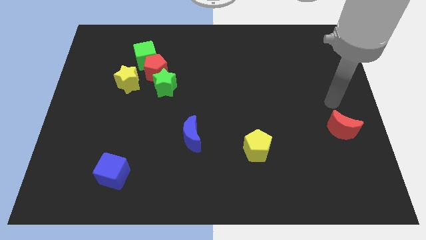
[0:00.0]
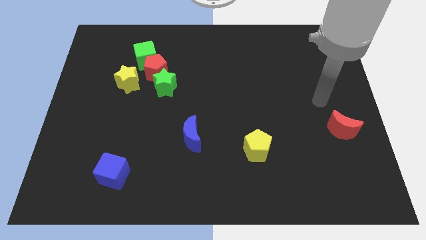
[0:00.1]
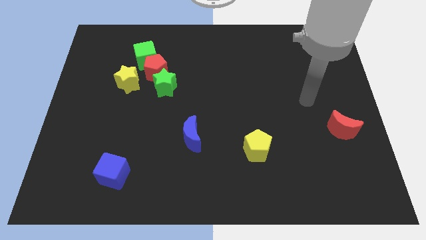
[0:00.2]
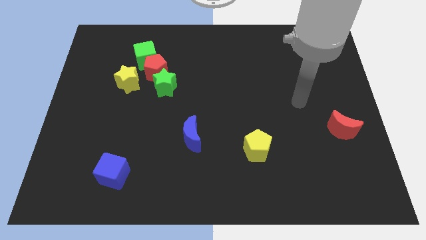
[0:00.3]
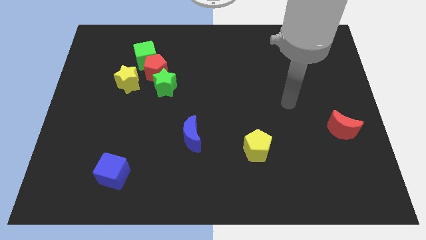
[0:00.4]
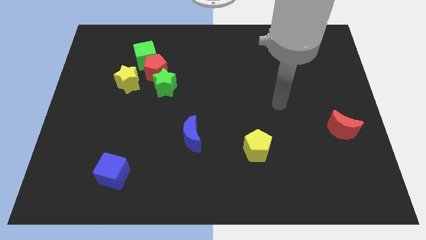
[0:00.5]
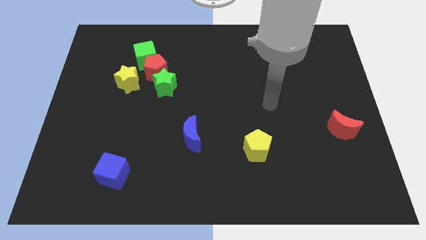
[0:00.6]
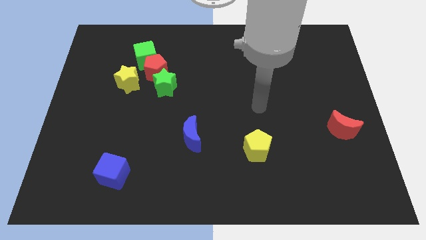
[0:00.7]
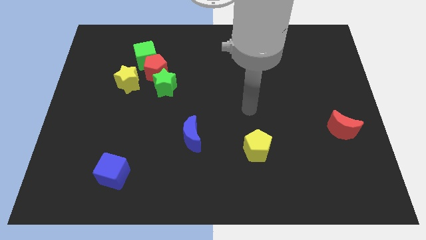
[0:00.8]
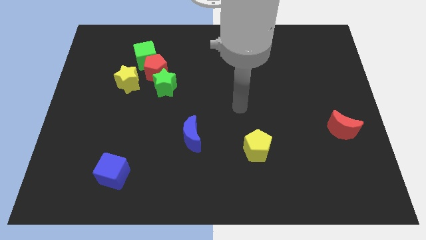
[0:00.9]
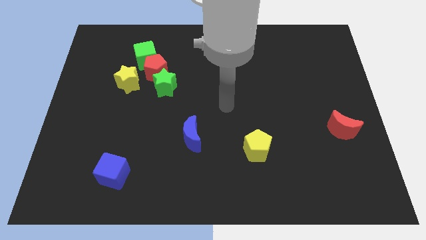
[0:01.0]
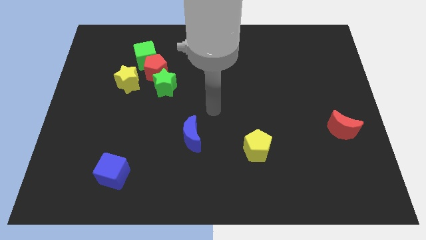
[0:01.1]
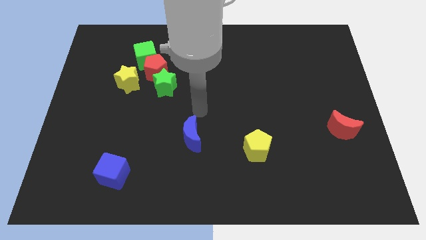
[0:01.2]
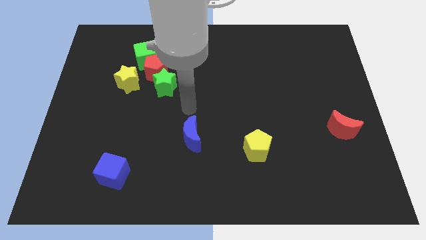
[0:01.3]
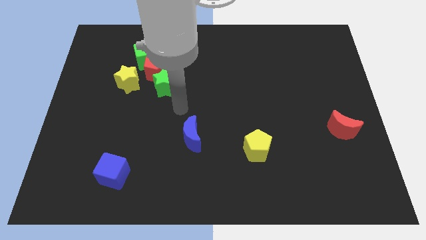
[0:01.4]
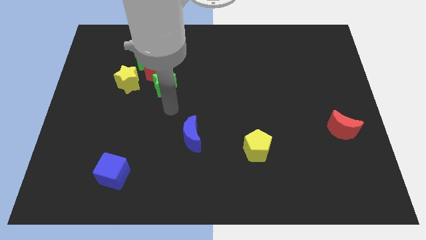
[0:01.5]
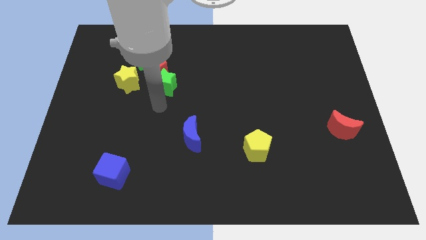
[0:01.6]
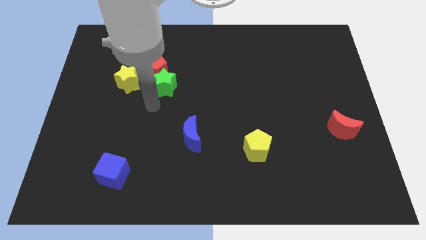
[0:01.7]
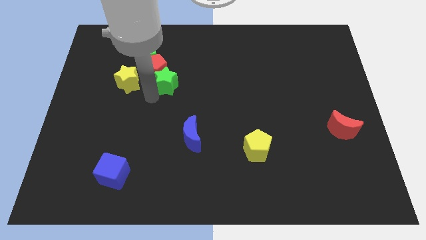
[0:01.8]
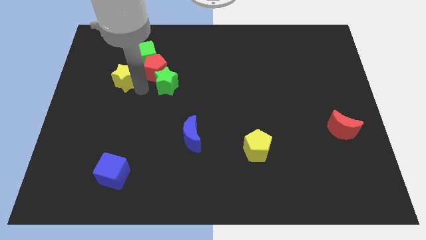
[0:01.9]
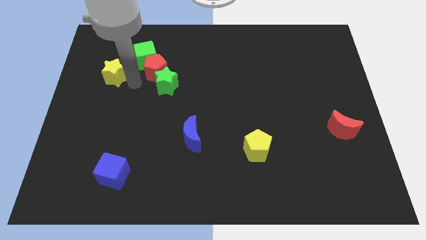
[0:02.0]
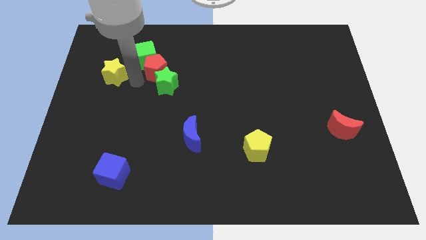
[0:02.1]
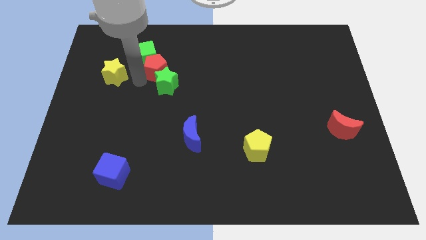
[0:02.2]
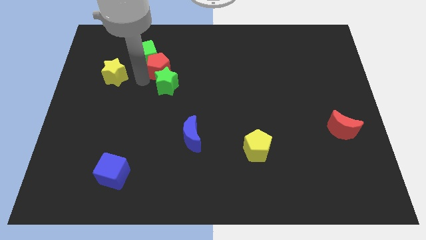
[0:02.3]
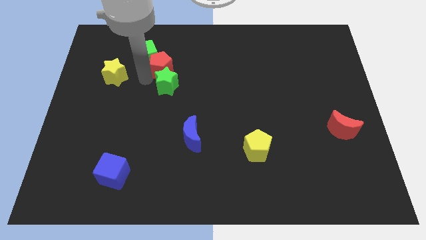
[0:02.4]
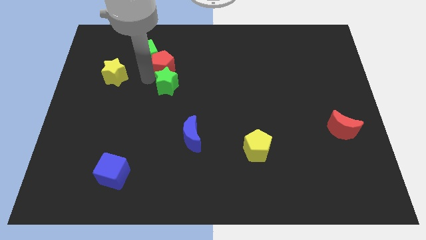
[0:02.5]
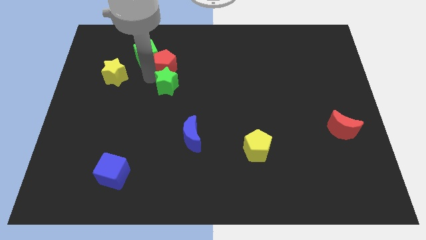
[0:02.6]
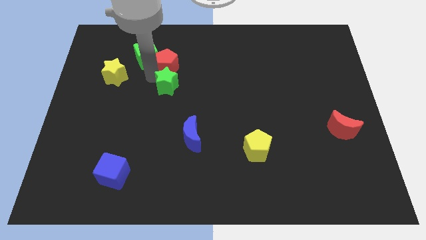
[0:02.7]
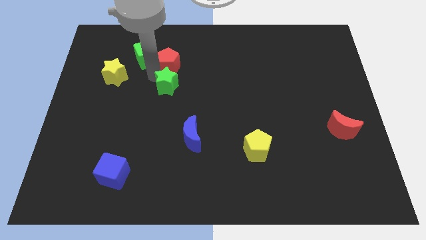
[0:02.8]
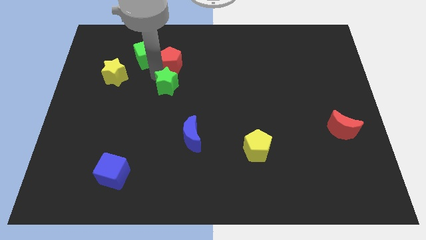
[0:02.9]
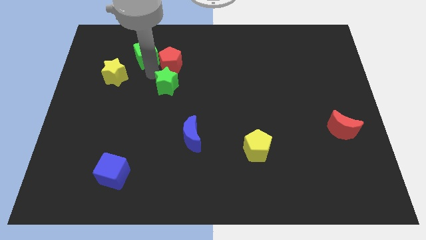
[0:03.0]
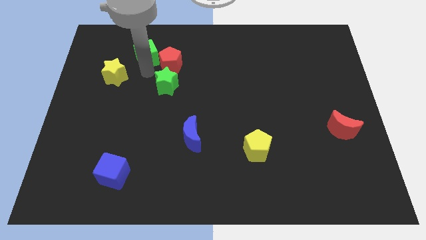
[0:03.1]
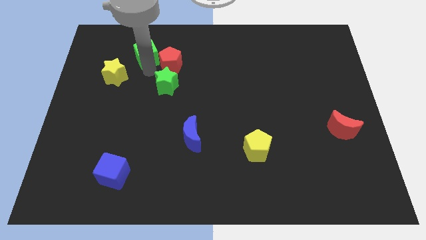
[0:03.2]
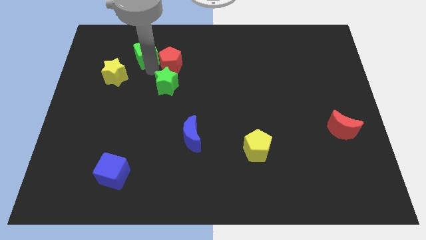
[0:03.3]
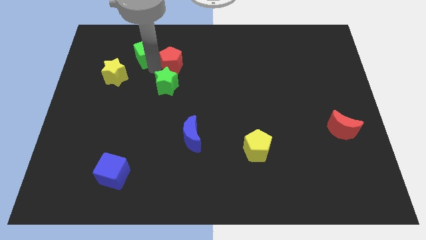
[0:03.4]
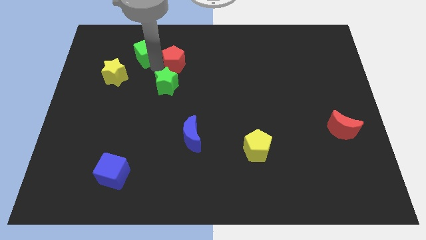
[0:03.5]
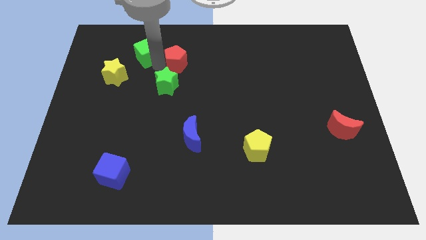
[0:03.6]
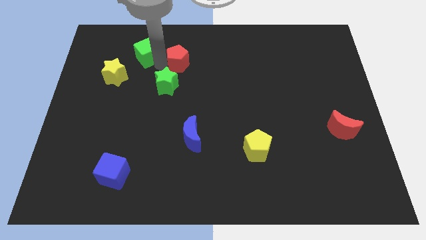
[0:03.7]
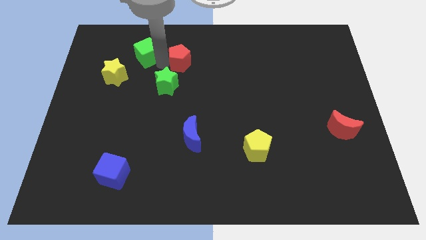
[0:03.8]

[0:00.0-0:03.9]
pull the red pentagon apart from the group of blocks

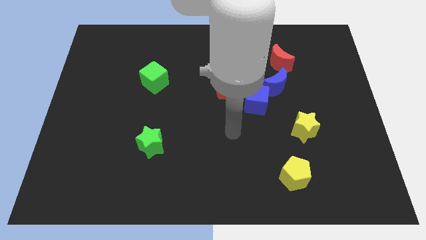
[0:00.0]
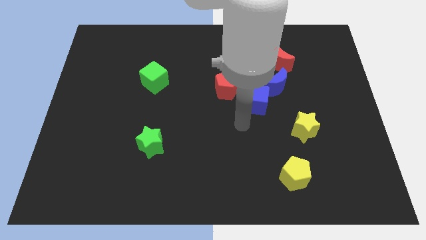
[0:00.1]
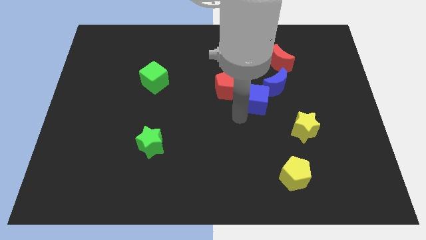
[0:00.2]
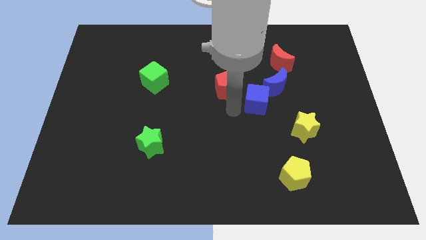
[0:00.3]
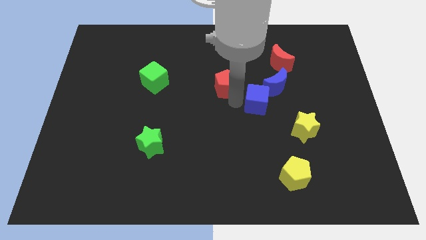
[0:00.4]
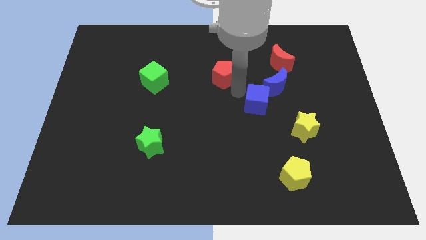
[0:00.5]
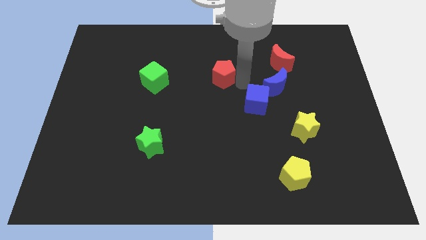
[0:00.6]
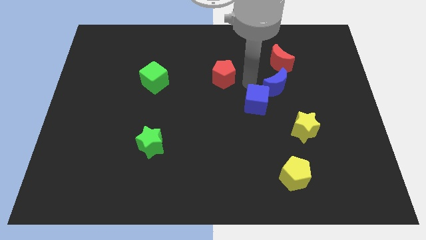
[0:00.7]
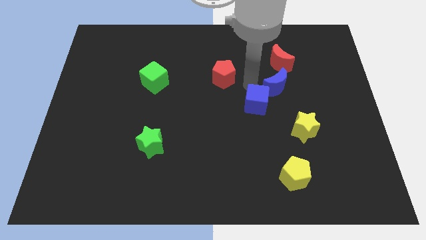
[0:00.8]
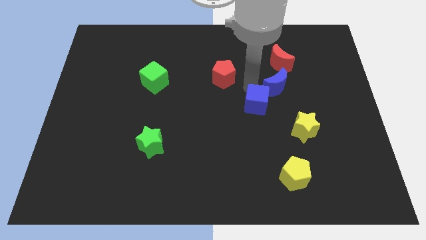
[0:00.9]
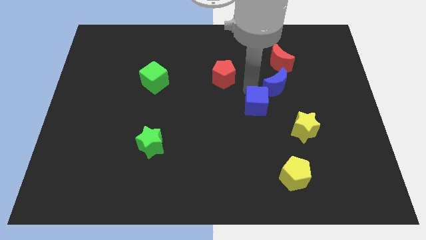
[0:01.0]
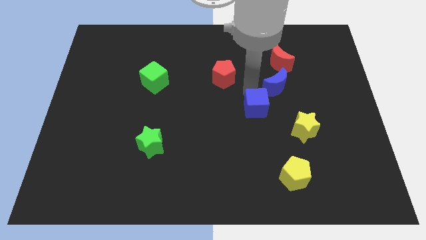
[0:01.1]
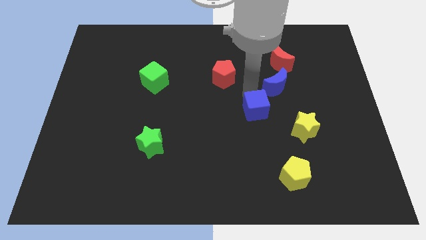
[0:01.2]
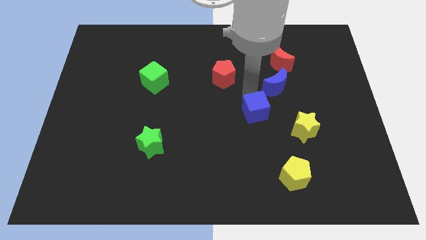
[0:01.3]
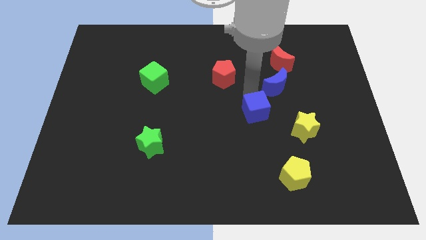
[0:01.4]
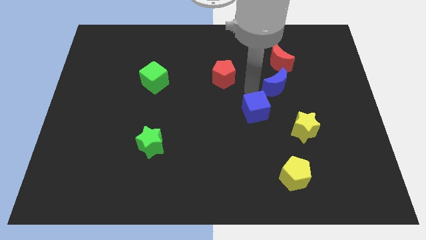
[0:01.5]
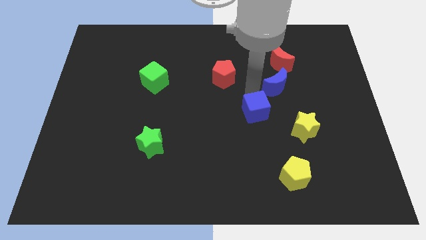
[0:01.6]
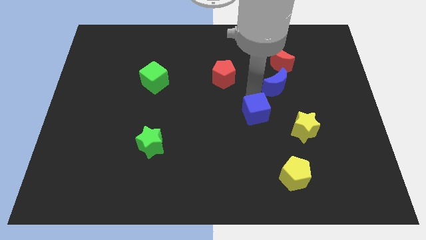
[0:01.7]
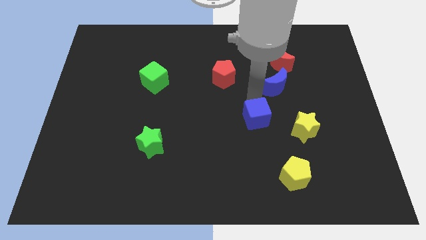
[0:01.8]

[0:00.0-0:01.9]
move the blue cube away from the blue moon and red pentagon

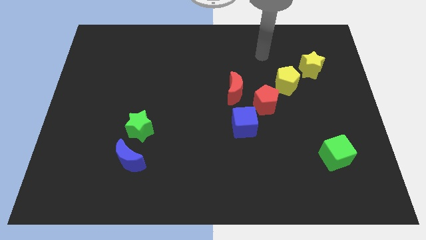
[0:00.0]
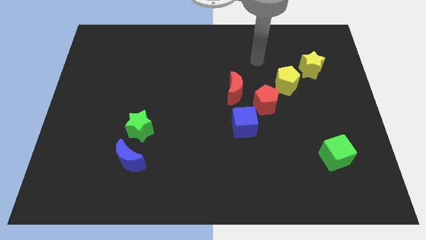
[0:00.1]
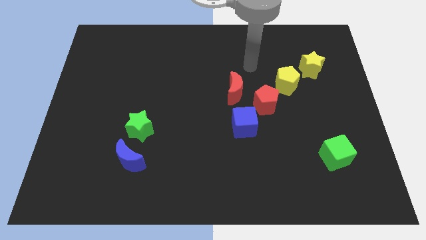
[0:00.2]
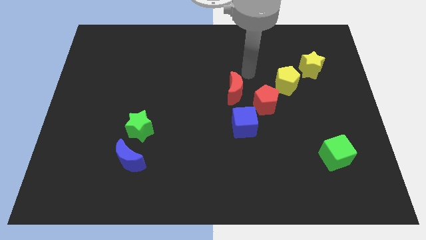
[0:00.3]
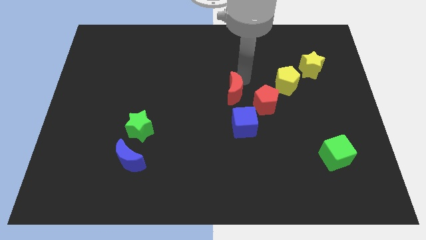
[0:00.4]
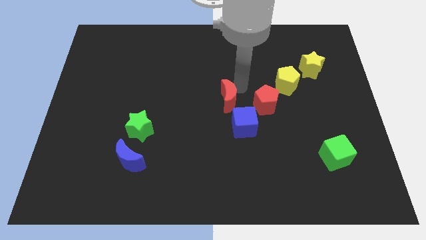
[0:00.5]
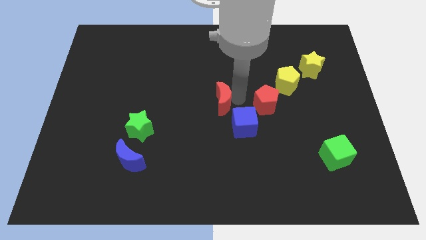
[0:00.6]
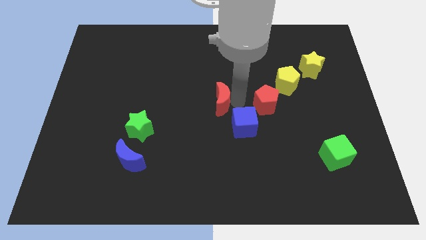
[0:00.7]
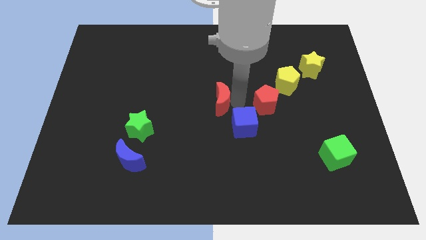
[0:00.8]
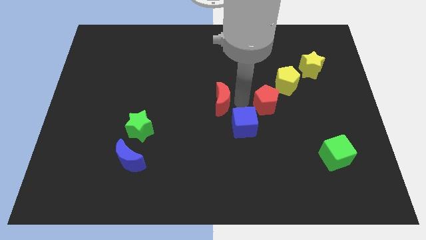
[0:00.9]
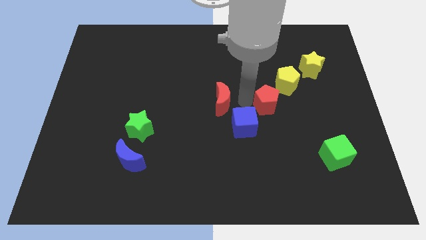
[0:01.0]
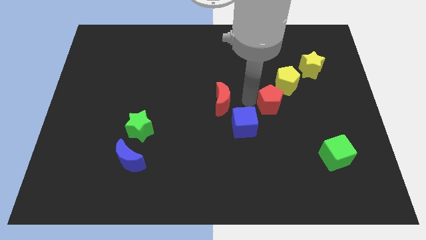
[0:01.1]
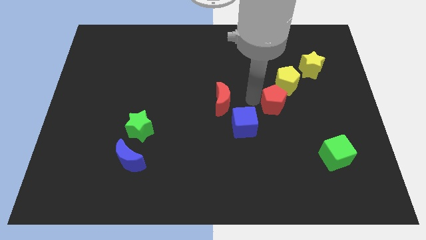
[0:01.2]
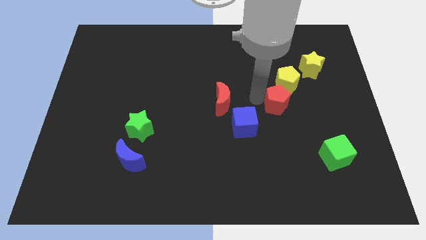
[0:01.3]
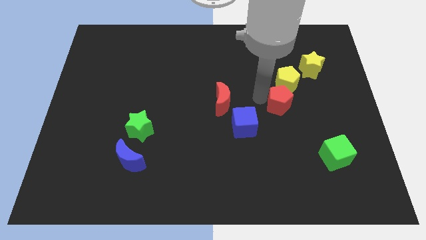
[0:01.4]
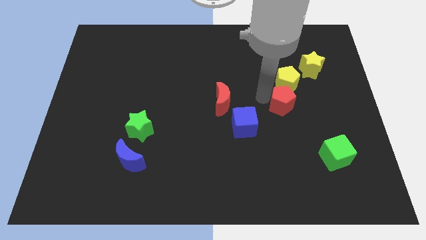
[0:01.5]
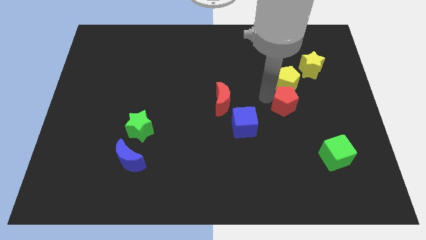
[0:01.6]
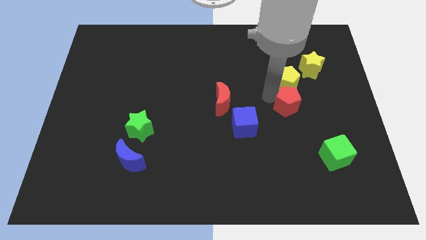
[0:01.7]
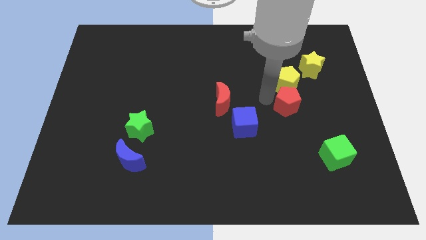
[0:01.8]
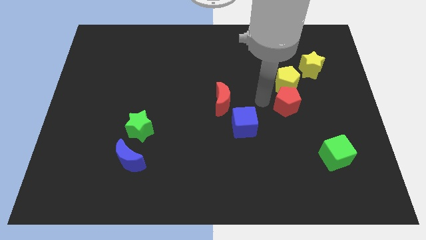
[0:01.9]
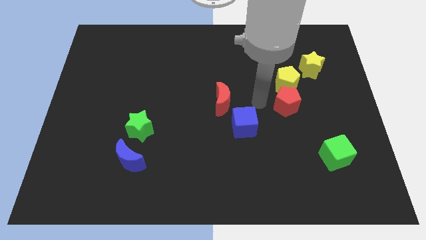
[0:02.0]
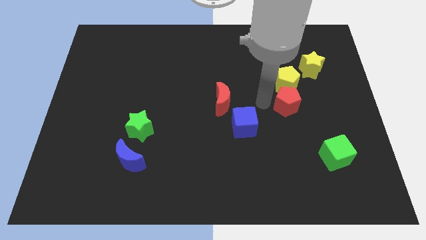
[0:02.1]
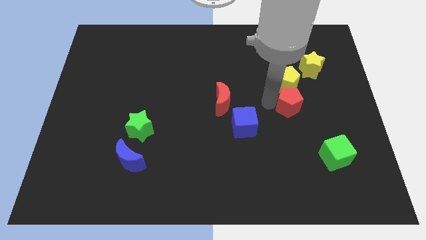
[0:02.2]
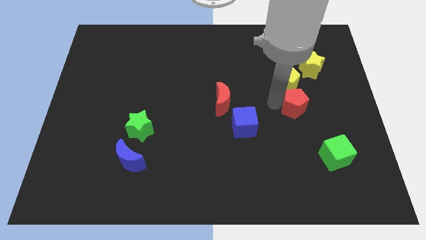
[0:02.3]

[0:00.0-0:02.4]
move the red pentagon away from the group

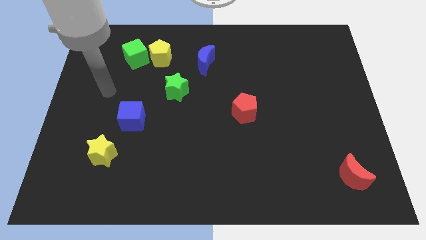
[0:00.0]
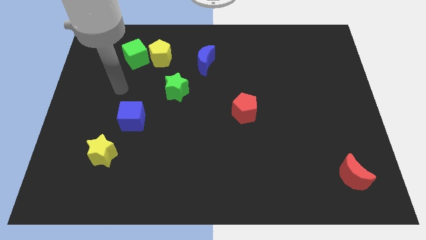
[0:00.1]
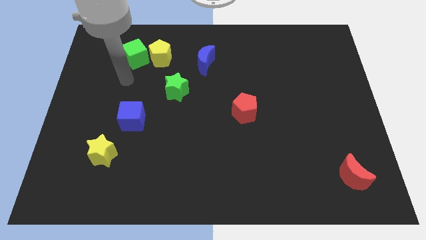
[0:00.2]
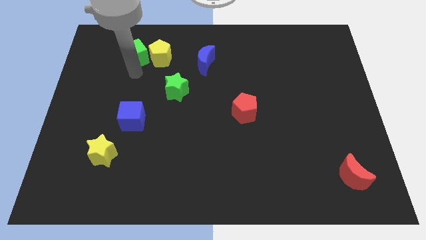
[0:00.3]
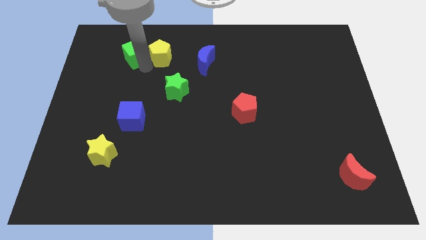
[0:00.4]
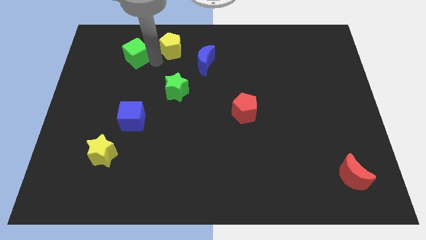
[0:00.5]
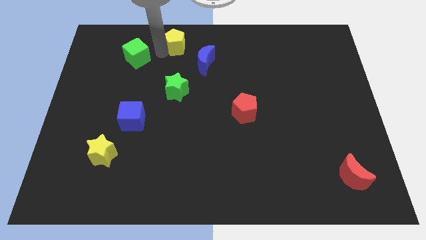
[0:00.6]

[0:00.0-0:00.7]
separate the green cube from the yellow pentagon

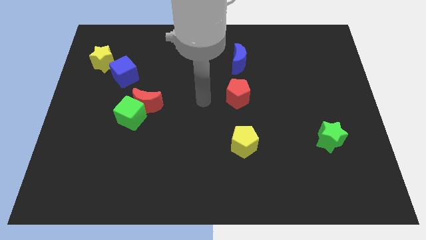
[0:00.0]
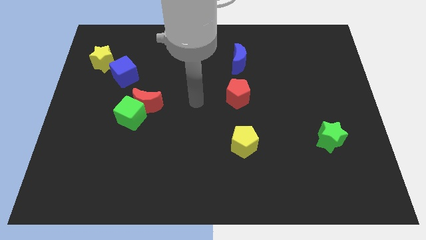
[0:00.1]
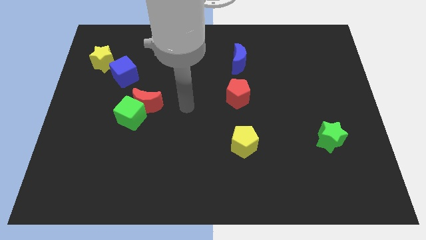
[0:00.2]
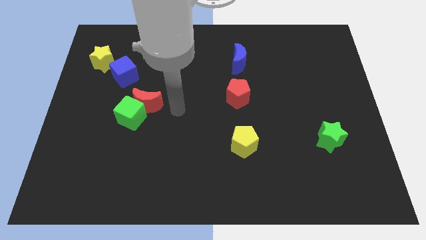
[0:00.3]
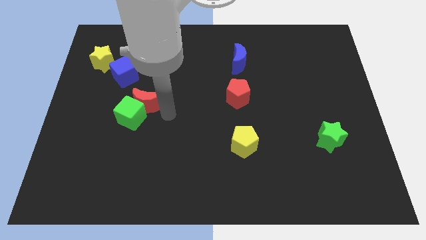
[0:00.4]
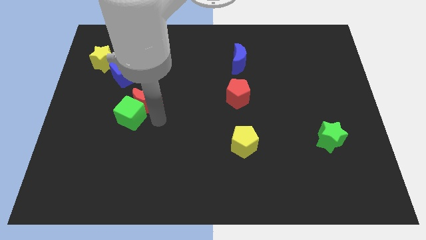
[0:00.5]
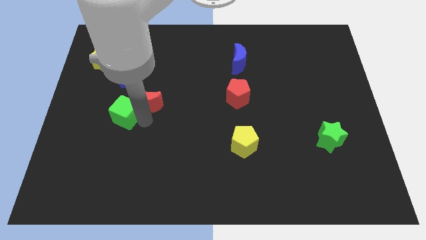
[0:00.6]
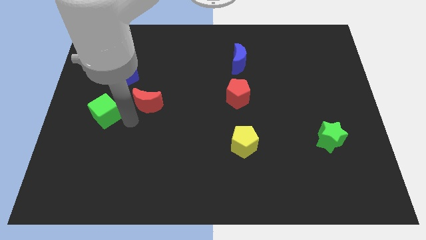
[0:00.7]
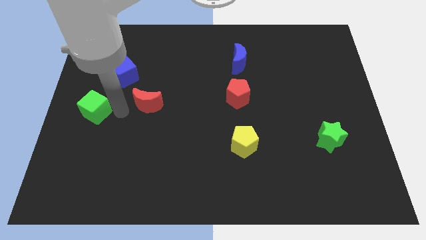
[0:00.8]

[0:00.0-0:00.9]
pull the red moon apart from the green cube
